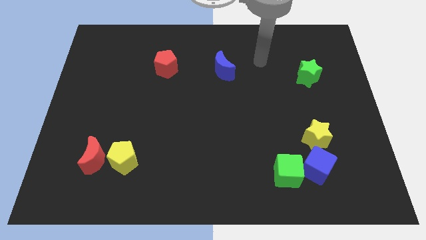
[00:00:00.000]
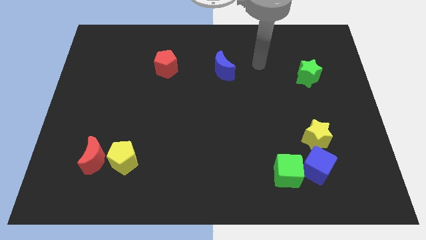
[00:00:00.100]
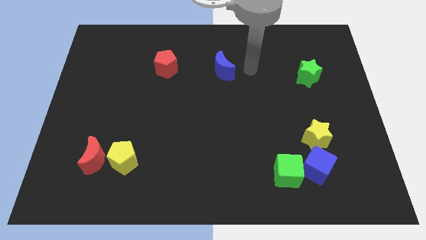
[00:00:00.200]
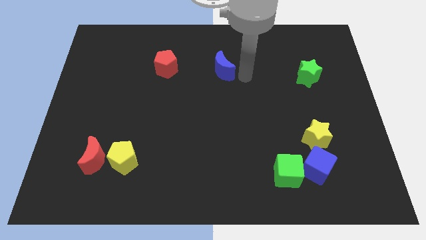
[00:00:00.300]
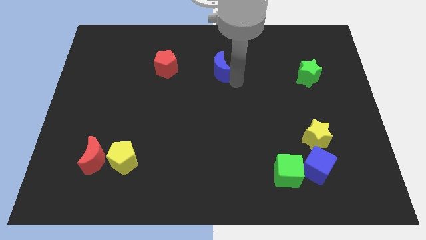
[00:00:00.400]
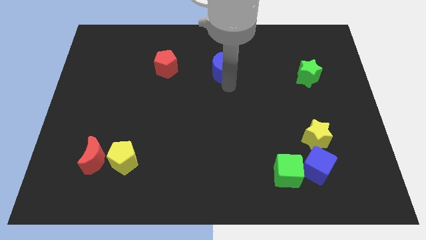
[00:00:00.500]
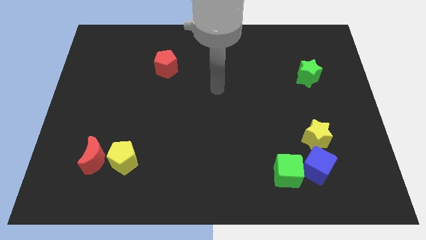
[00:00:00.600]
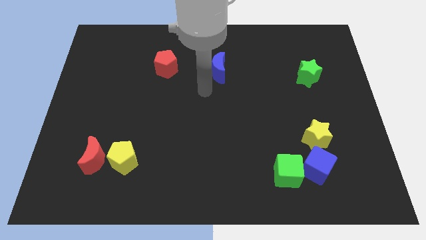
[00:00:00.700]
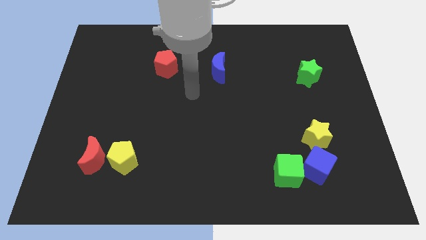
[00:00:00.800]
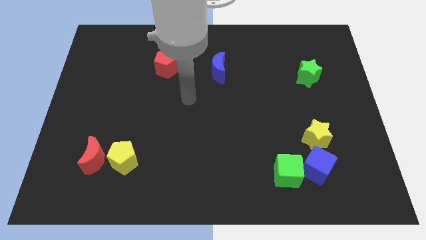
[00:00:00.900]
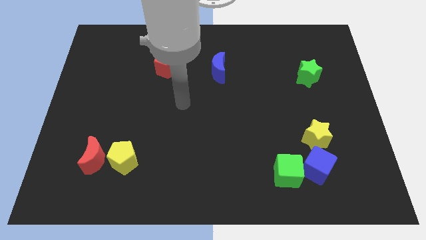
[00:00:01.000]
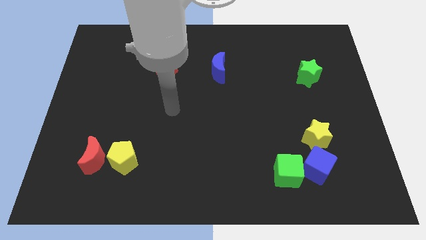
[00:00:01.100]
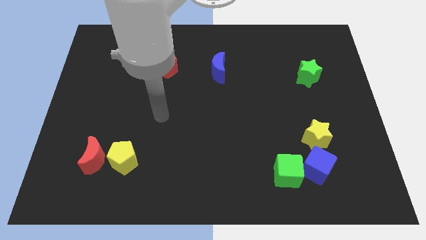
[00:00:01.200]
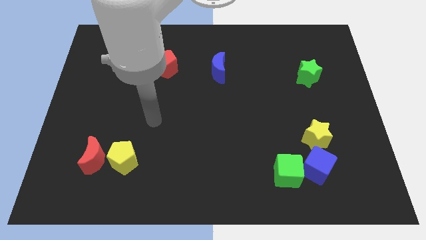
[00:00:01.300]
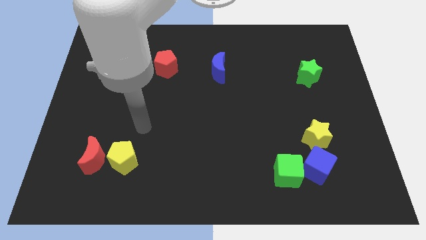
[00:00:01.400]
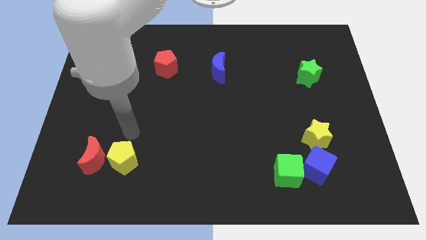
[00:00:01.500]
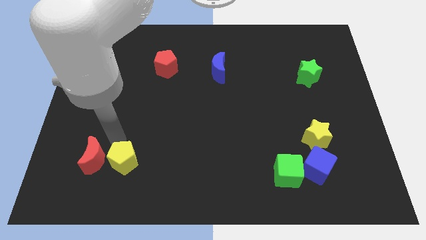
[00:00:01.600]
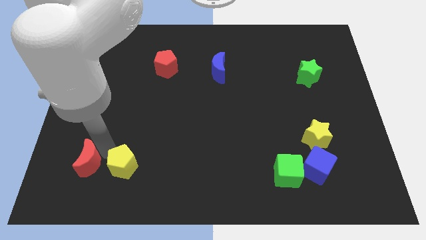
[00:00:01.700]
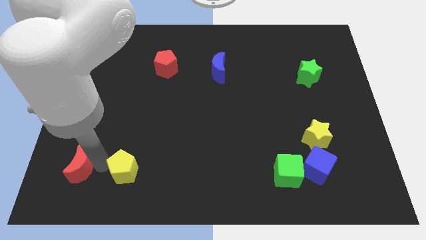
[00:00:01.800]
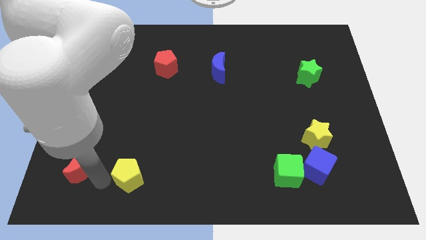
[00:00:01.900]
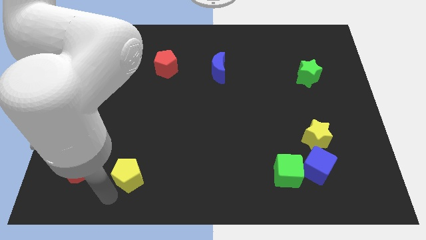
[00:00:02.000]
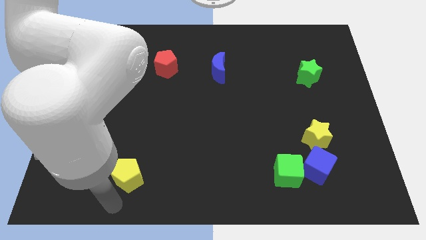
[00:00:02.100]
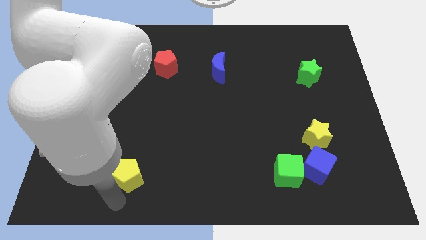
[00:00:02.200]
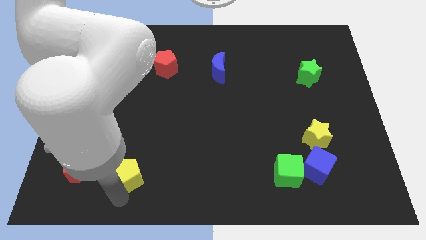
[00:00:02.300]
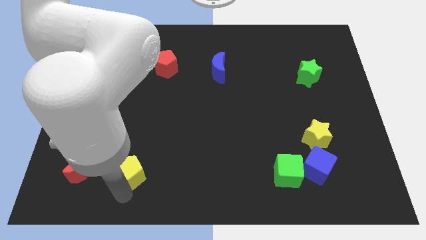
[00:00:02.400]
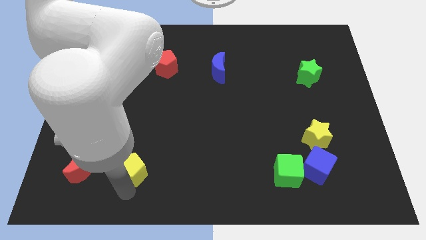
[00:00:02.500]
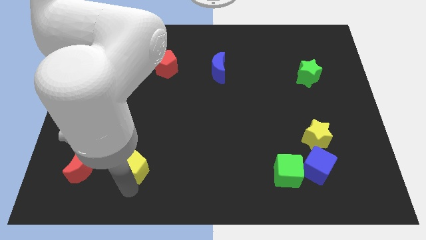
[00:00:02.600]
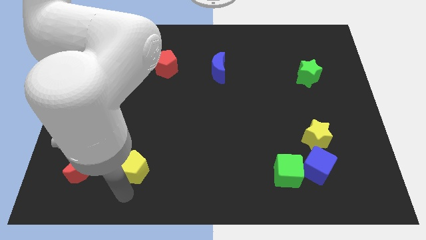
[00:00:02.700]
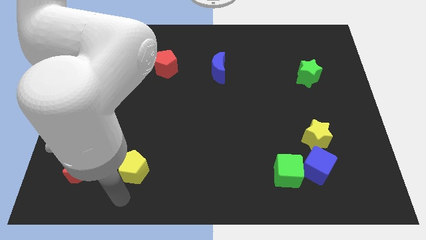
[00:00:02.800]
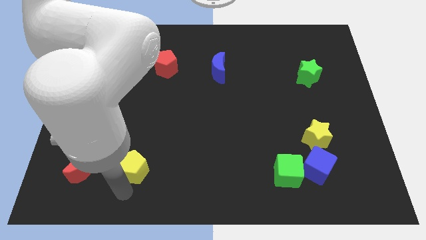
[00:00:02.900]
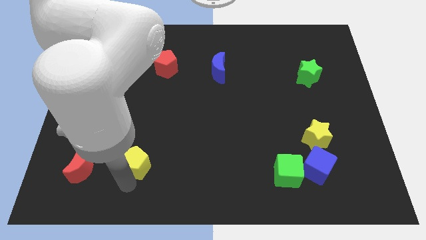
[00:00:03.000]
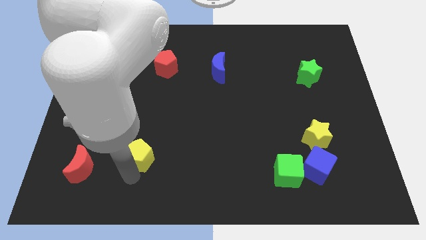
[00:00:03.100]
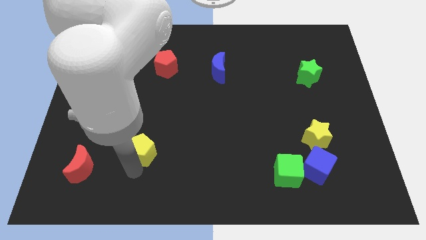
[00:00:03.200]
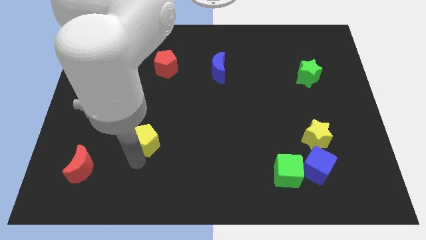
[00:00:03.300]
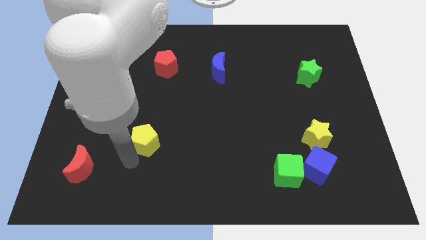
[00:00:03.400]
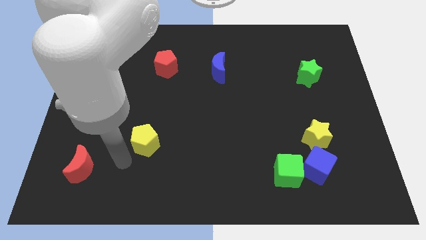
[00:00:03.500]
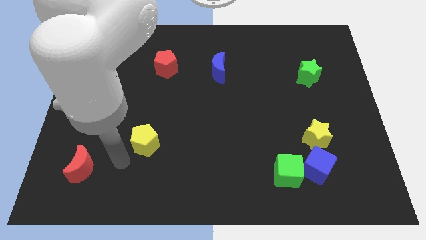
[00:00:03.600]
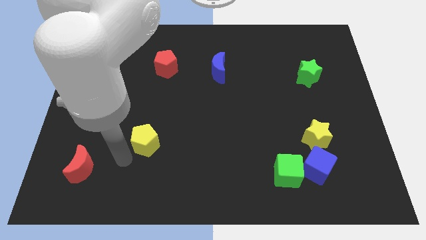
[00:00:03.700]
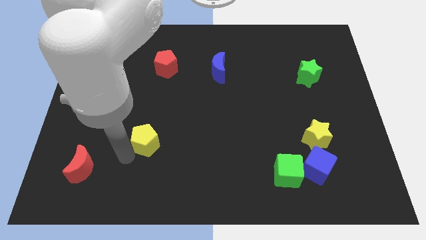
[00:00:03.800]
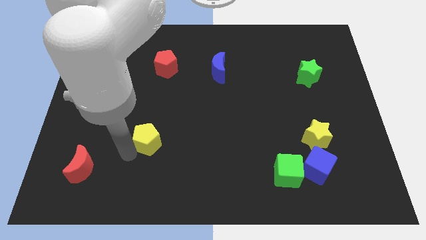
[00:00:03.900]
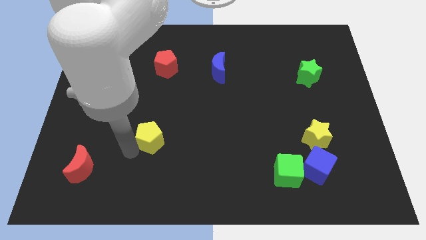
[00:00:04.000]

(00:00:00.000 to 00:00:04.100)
slightly slide the yellow pentagon up and then to the right

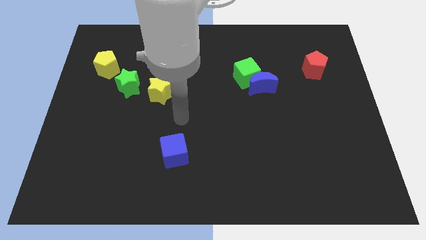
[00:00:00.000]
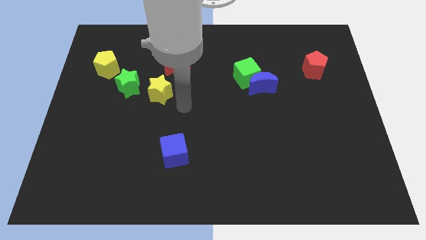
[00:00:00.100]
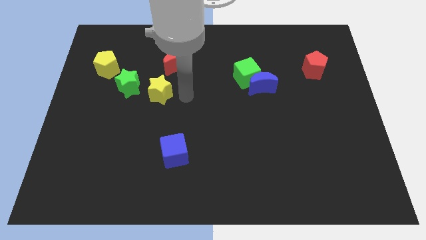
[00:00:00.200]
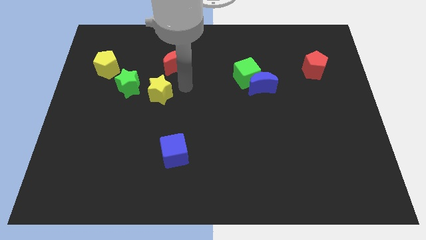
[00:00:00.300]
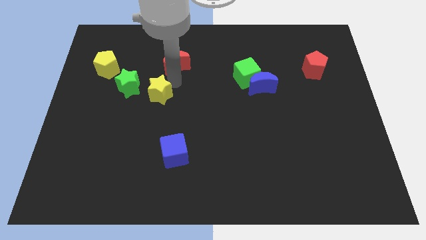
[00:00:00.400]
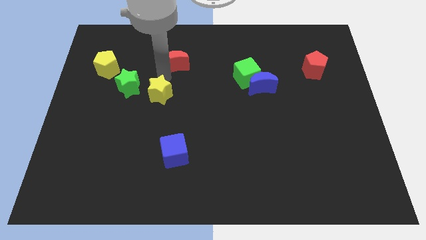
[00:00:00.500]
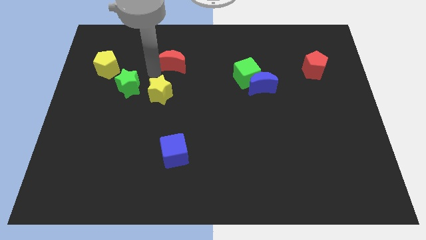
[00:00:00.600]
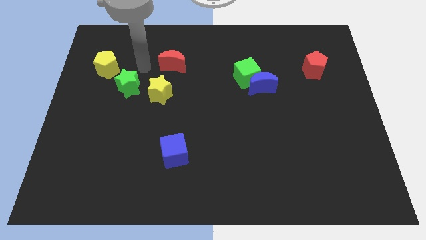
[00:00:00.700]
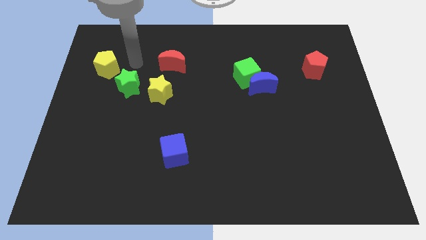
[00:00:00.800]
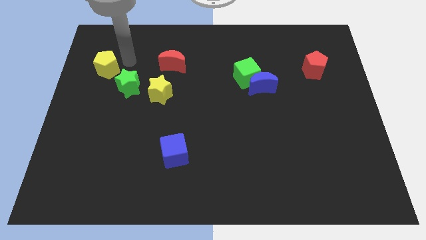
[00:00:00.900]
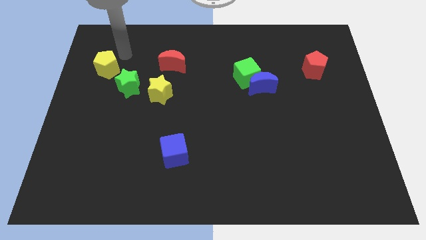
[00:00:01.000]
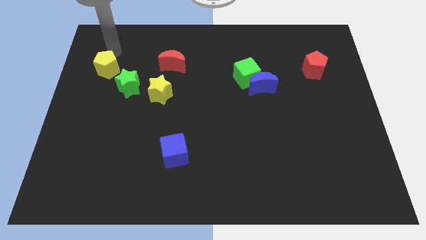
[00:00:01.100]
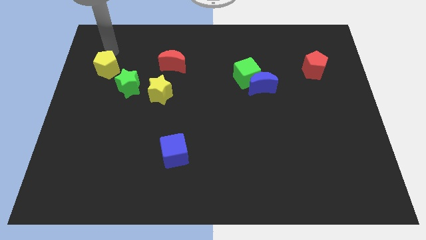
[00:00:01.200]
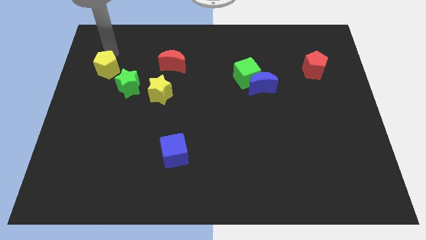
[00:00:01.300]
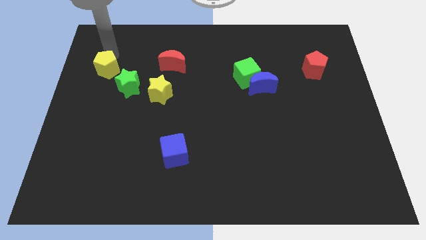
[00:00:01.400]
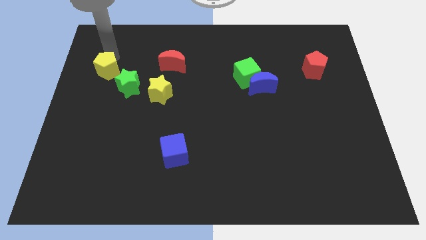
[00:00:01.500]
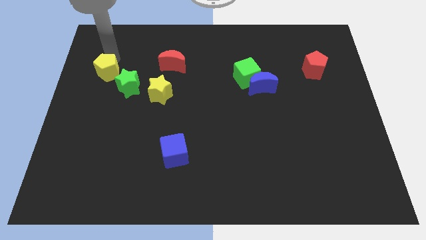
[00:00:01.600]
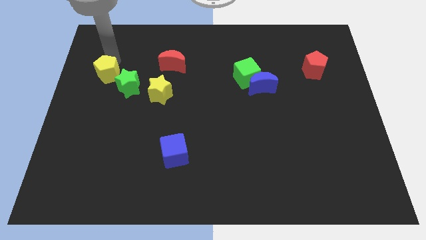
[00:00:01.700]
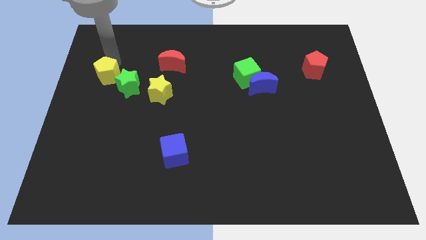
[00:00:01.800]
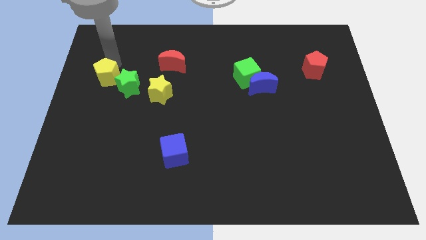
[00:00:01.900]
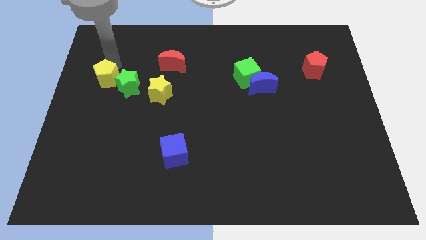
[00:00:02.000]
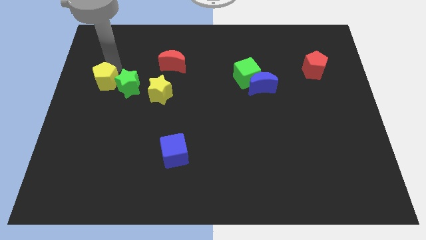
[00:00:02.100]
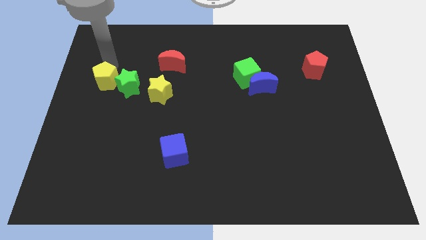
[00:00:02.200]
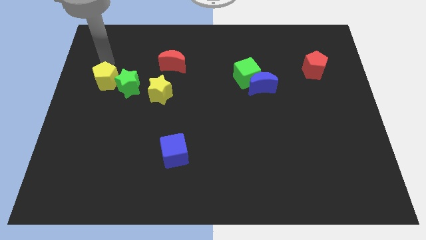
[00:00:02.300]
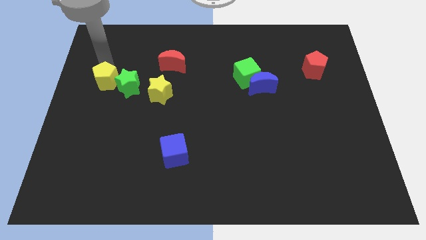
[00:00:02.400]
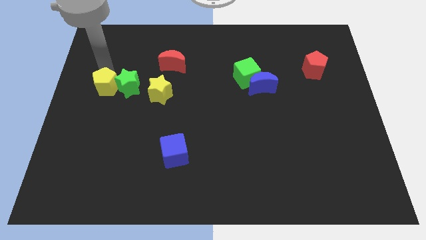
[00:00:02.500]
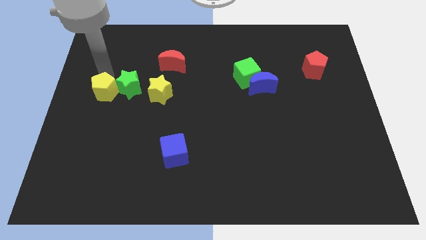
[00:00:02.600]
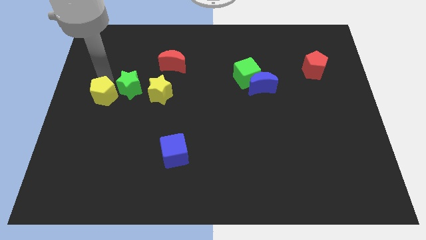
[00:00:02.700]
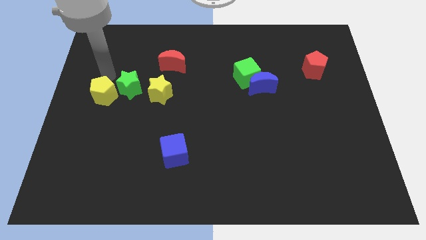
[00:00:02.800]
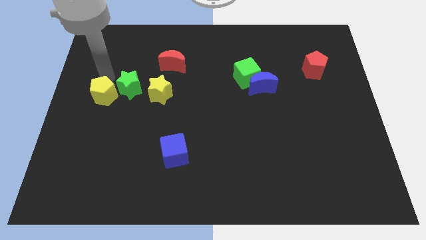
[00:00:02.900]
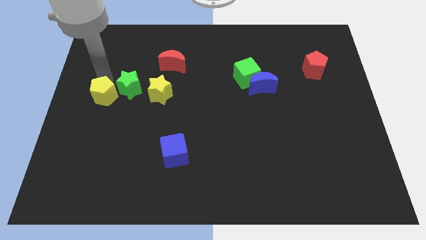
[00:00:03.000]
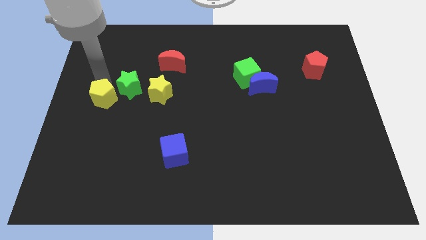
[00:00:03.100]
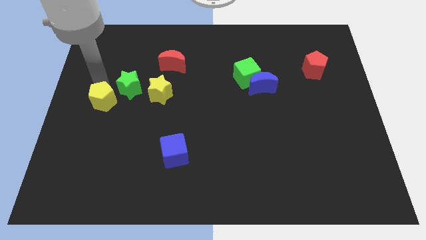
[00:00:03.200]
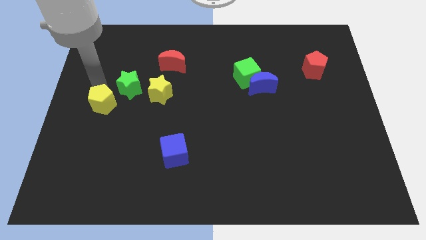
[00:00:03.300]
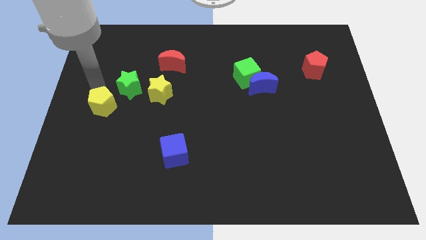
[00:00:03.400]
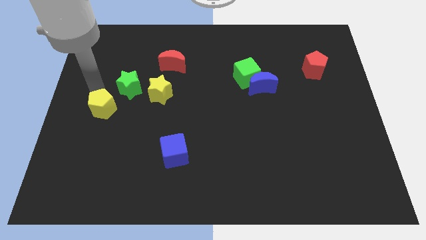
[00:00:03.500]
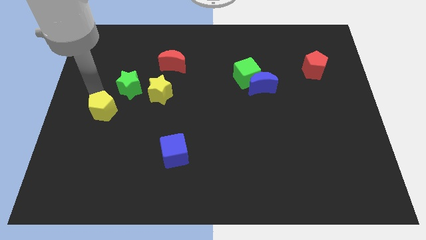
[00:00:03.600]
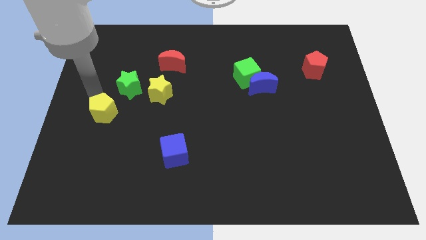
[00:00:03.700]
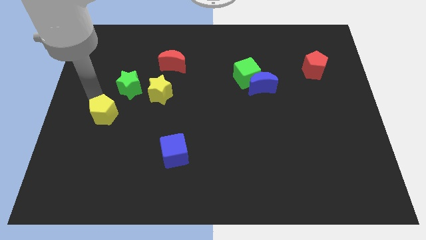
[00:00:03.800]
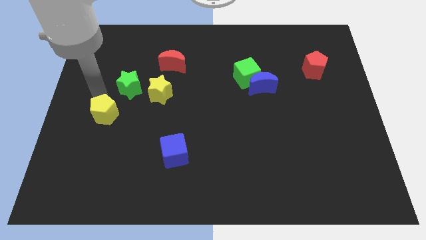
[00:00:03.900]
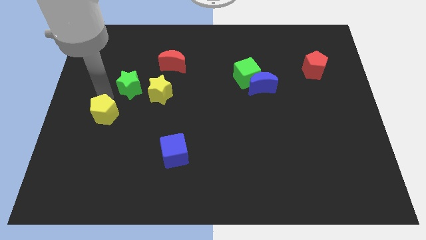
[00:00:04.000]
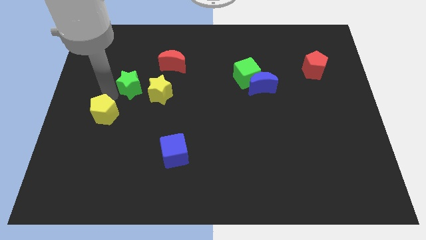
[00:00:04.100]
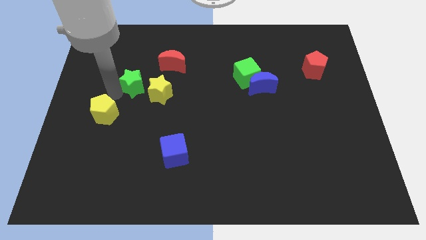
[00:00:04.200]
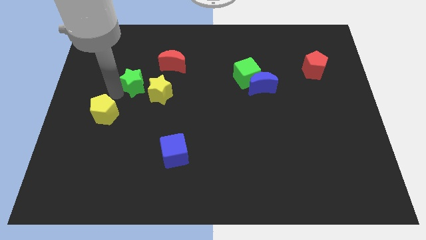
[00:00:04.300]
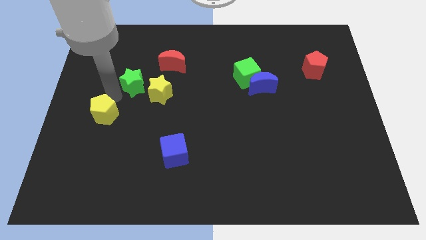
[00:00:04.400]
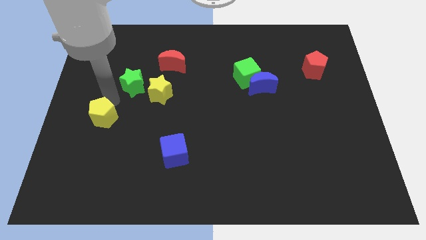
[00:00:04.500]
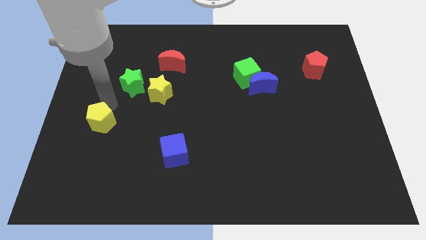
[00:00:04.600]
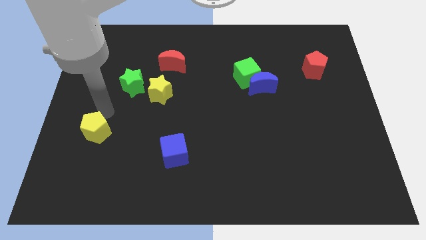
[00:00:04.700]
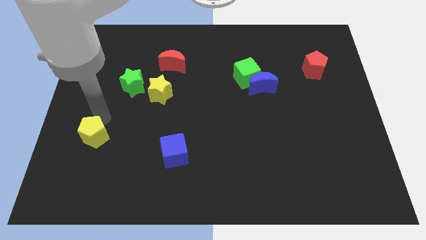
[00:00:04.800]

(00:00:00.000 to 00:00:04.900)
move the yellow pentagon downwards
